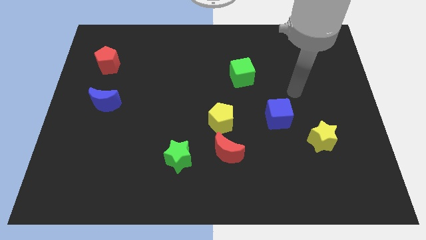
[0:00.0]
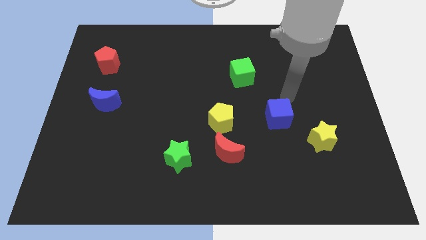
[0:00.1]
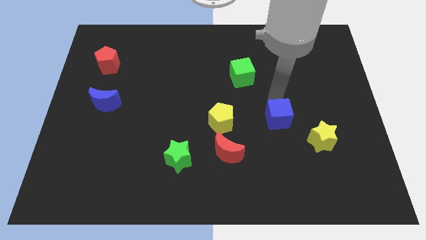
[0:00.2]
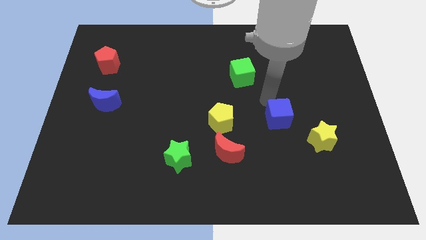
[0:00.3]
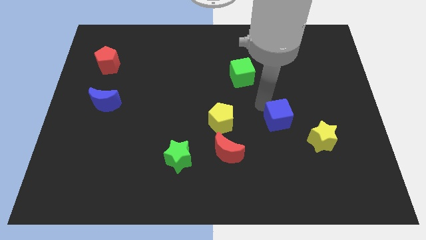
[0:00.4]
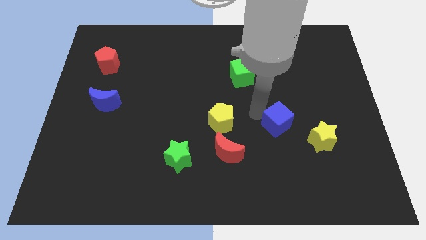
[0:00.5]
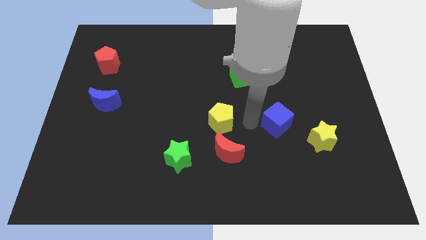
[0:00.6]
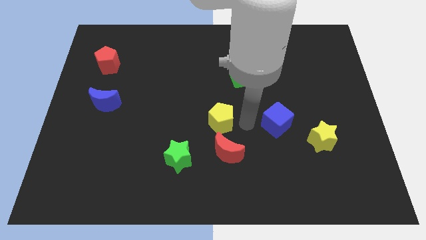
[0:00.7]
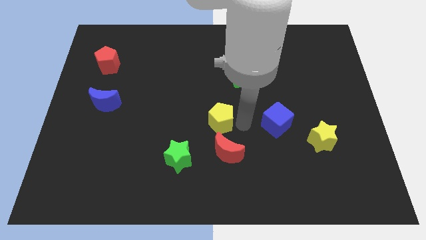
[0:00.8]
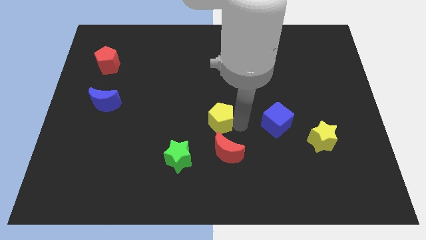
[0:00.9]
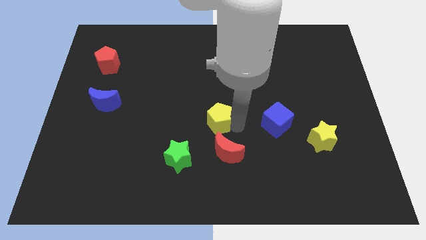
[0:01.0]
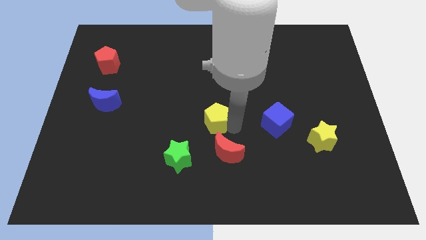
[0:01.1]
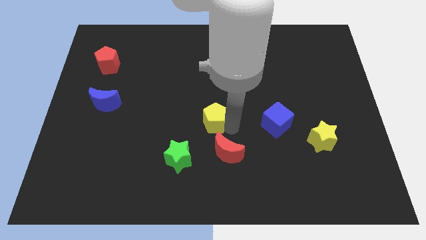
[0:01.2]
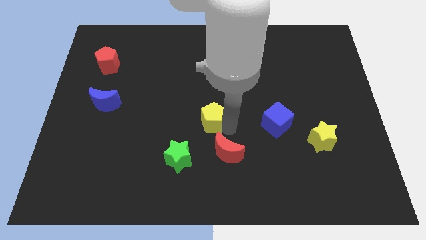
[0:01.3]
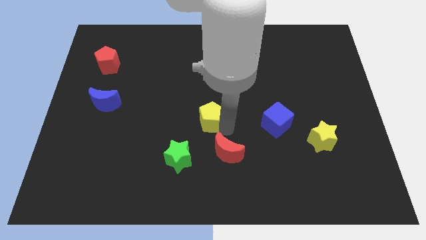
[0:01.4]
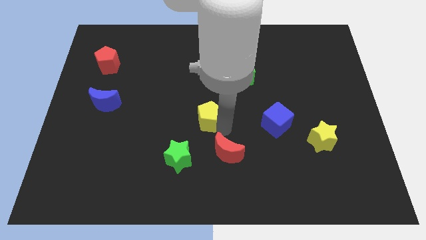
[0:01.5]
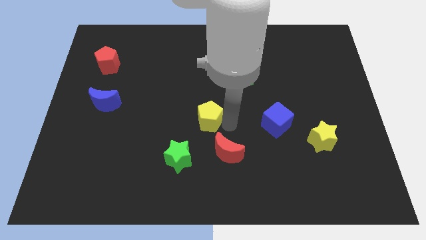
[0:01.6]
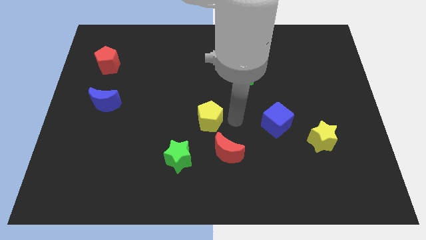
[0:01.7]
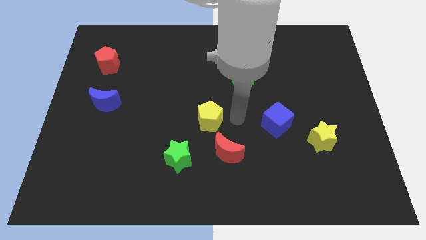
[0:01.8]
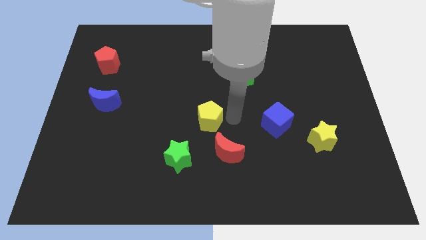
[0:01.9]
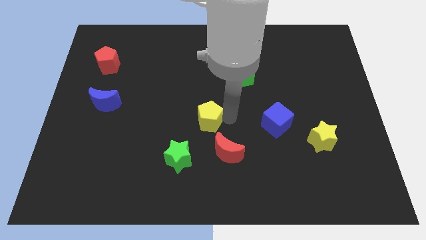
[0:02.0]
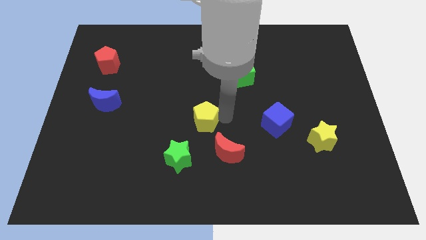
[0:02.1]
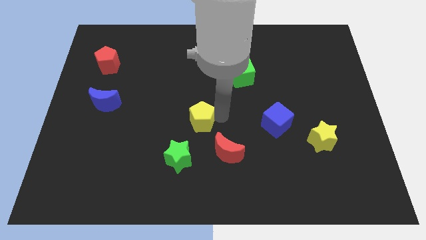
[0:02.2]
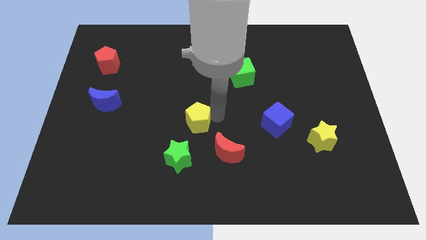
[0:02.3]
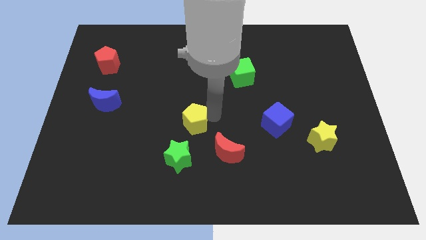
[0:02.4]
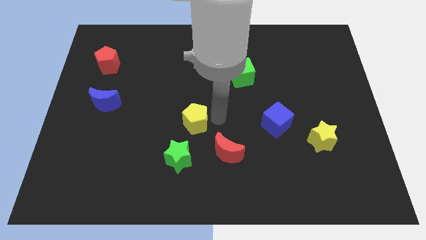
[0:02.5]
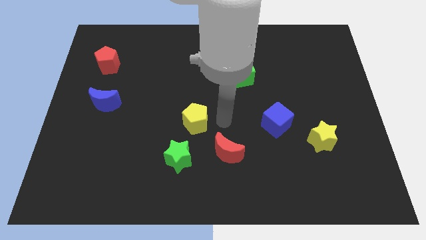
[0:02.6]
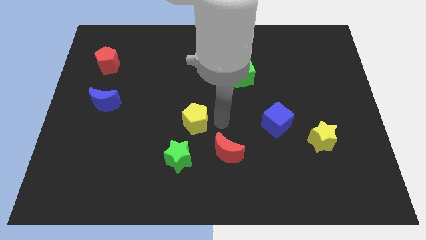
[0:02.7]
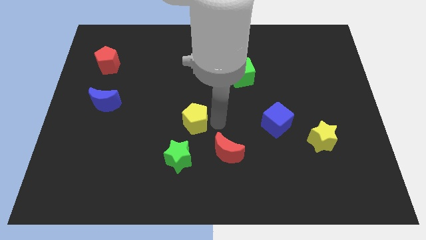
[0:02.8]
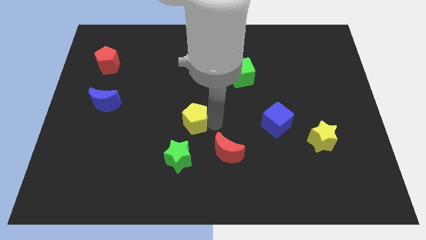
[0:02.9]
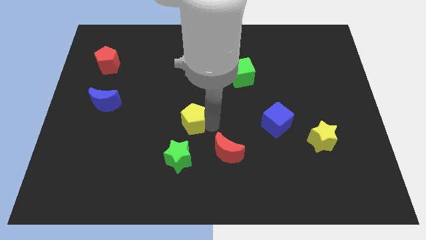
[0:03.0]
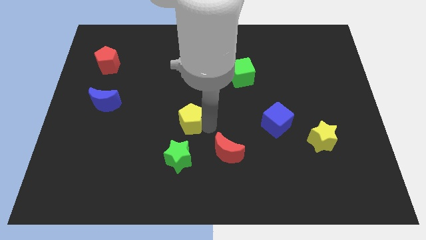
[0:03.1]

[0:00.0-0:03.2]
push the yellow pentagon left somewhat

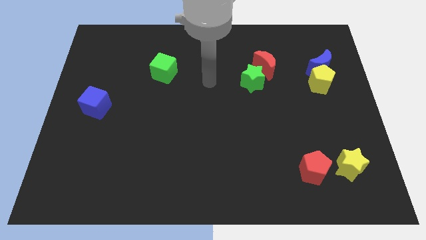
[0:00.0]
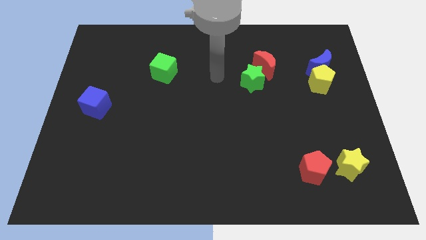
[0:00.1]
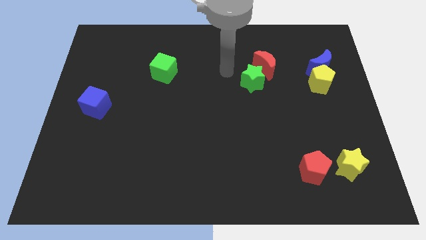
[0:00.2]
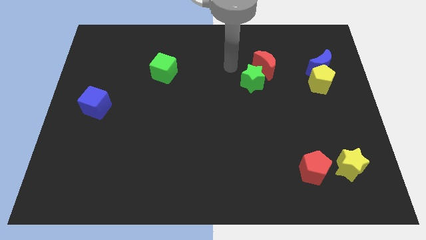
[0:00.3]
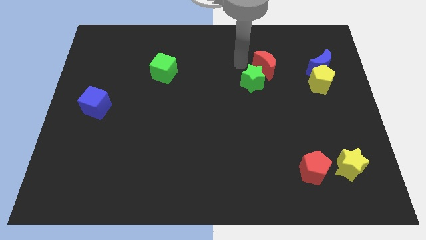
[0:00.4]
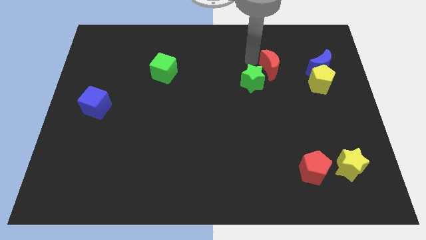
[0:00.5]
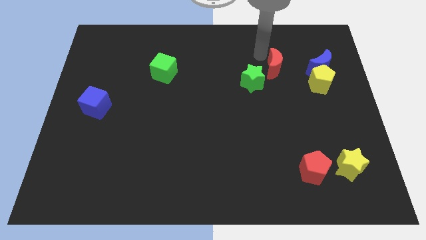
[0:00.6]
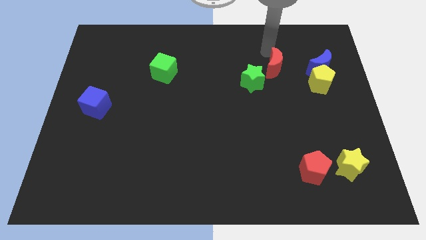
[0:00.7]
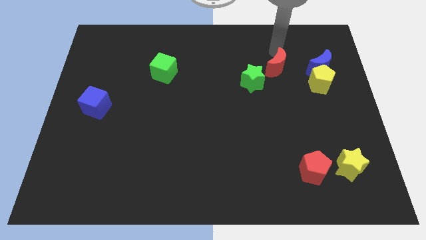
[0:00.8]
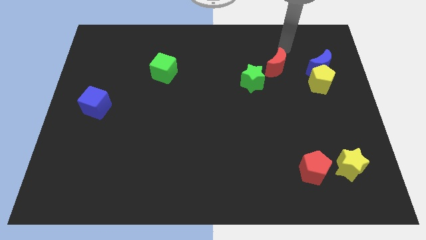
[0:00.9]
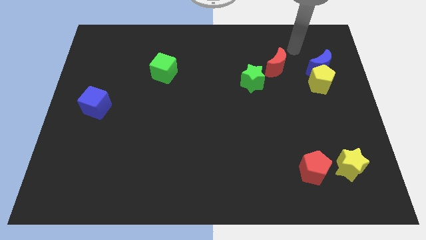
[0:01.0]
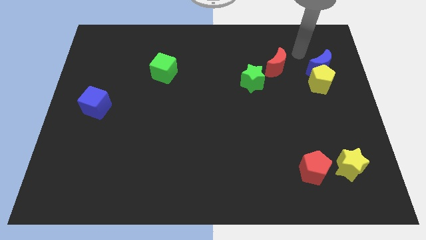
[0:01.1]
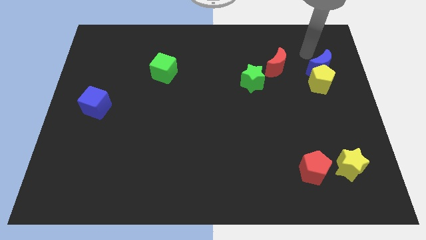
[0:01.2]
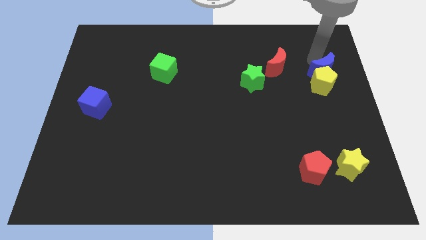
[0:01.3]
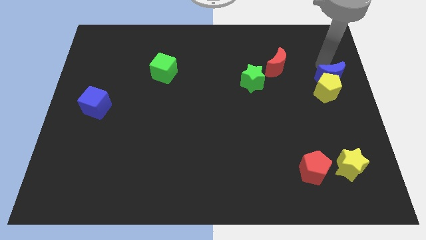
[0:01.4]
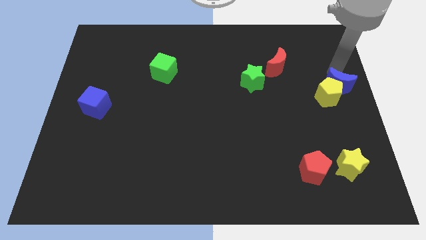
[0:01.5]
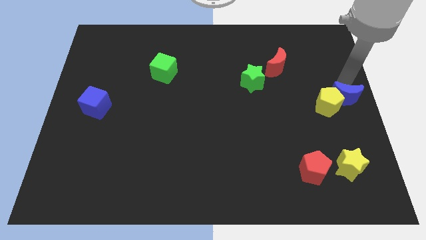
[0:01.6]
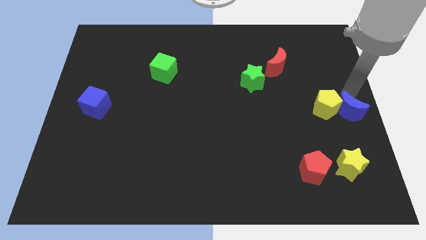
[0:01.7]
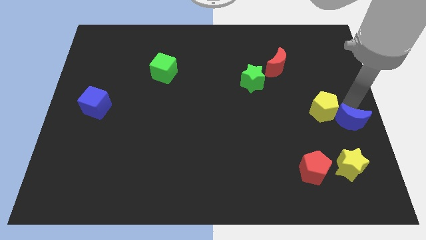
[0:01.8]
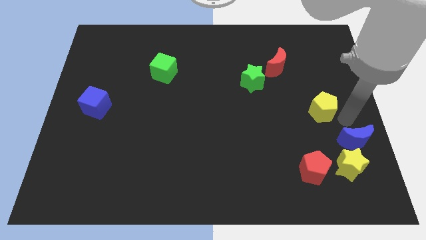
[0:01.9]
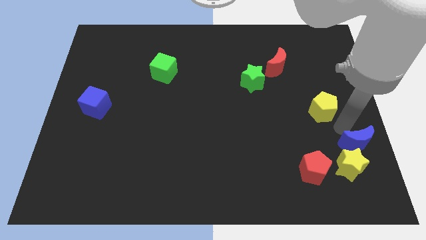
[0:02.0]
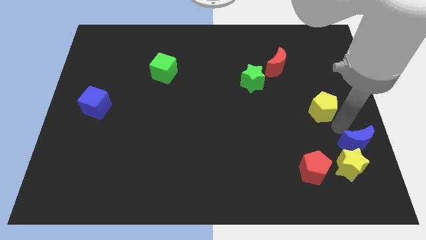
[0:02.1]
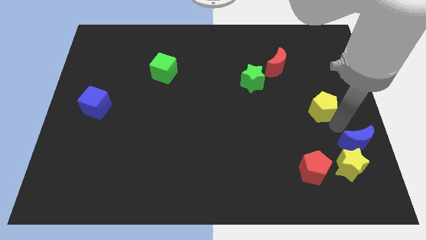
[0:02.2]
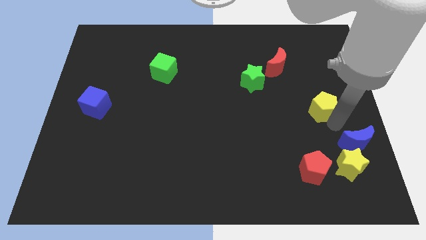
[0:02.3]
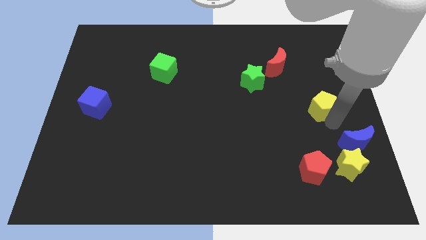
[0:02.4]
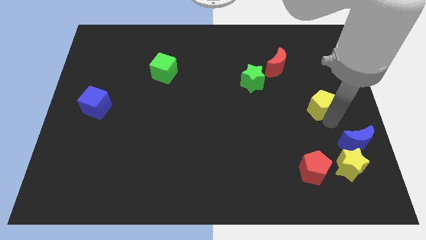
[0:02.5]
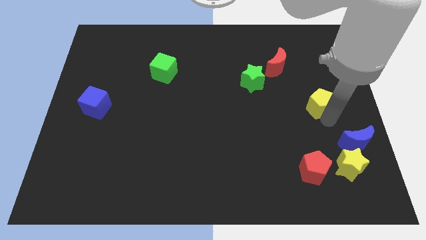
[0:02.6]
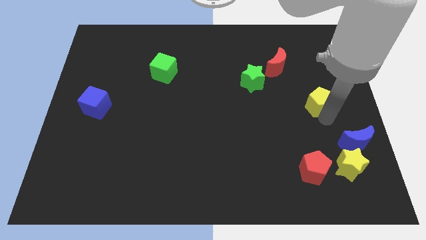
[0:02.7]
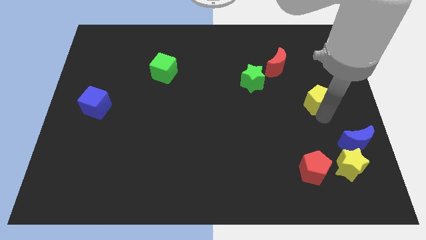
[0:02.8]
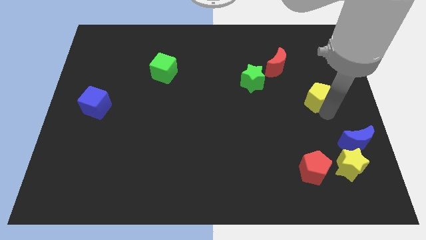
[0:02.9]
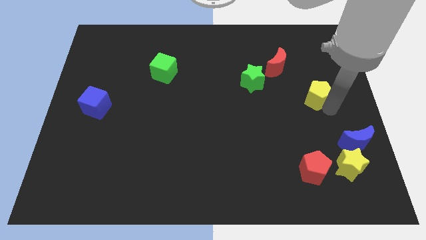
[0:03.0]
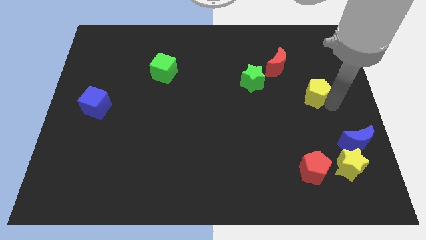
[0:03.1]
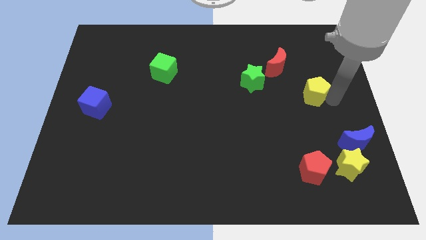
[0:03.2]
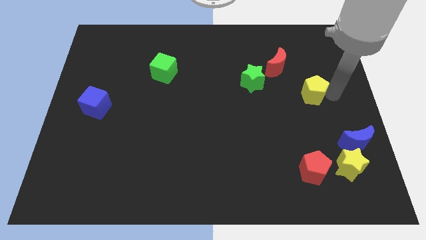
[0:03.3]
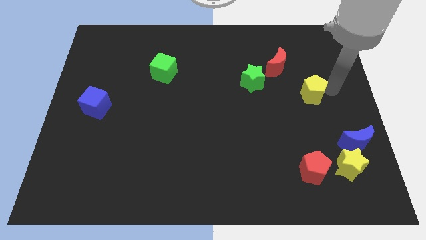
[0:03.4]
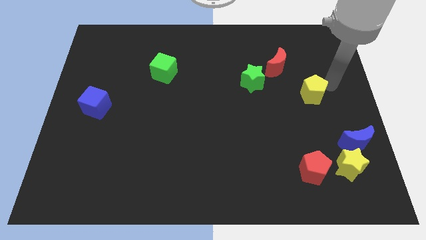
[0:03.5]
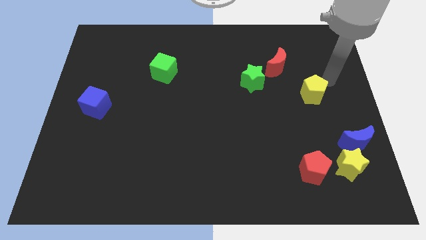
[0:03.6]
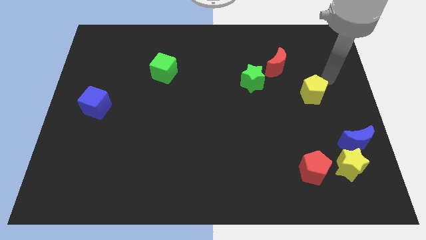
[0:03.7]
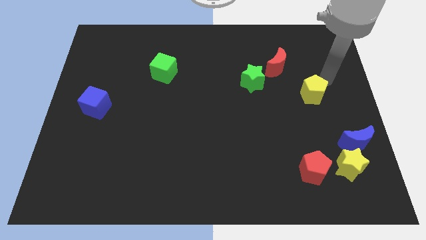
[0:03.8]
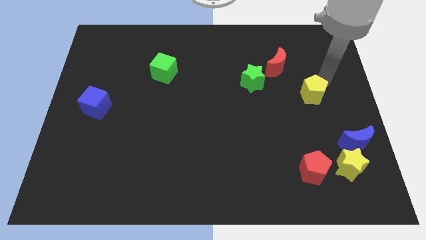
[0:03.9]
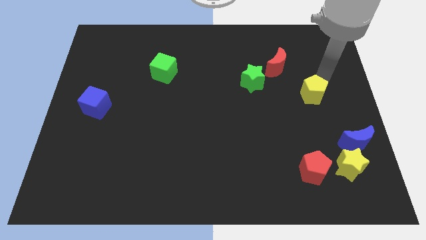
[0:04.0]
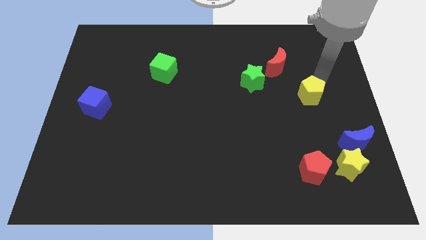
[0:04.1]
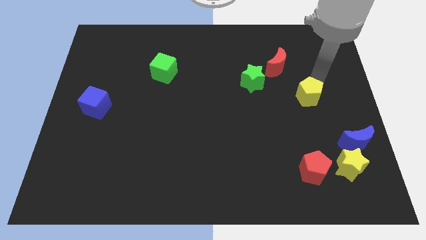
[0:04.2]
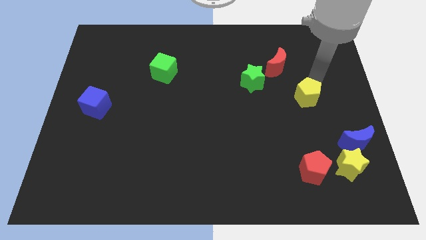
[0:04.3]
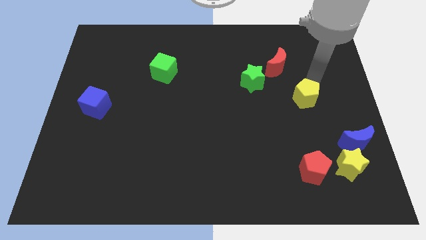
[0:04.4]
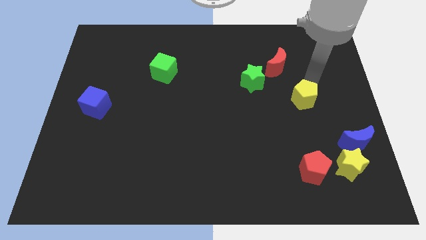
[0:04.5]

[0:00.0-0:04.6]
slightly move the yellow pentagon down and left
